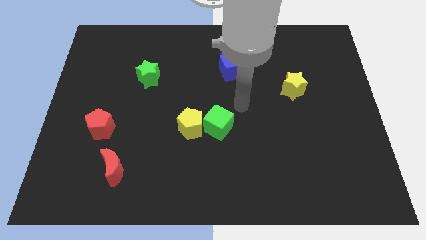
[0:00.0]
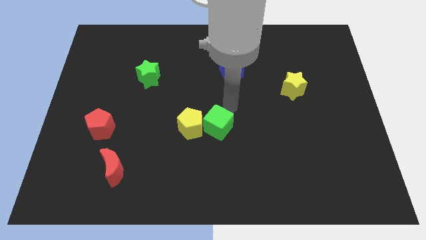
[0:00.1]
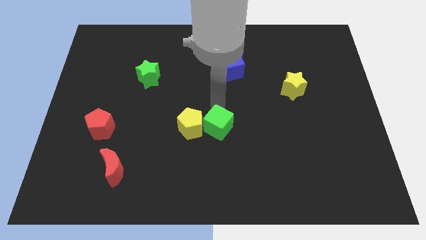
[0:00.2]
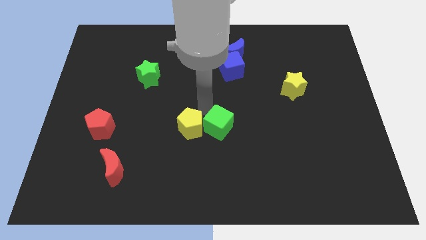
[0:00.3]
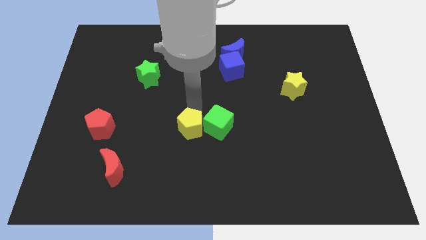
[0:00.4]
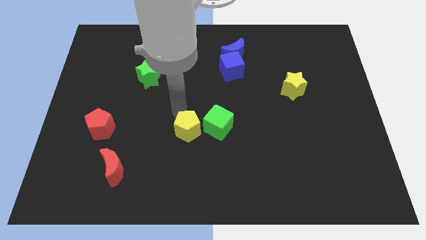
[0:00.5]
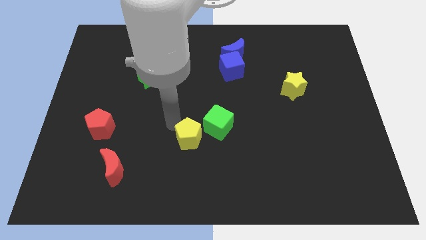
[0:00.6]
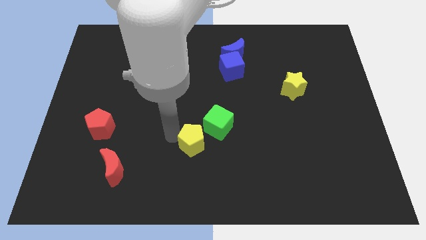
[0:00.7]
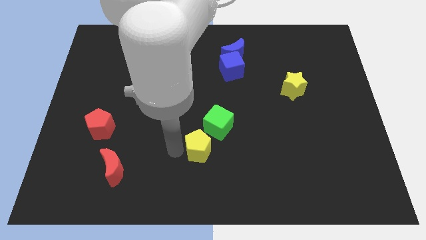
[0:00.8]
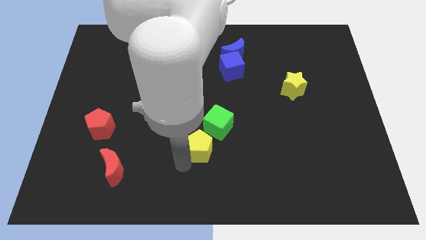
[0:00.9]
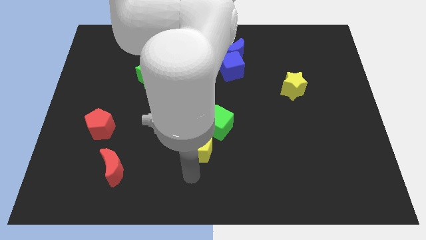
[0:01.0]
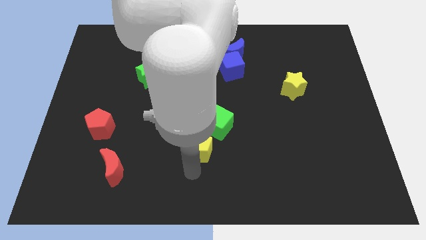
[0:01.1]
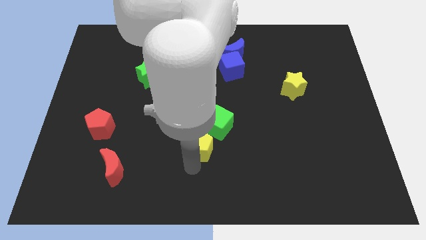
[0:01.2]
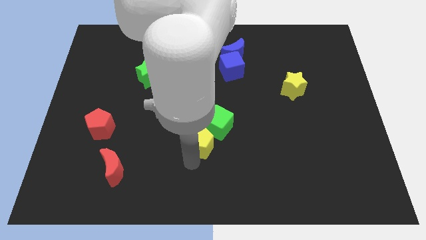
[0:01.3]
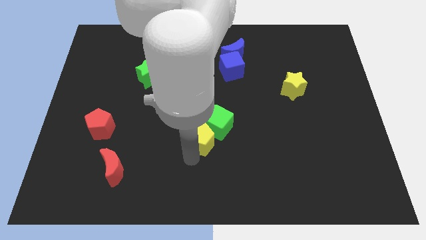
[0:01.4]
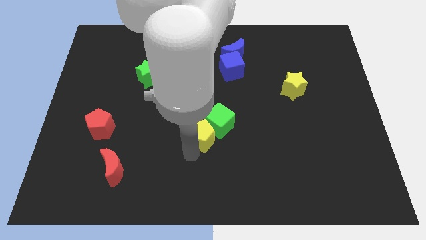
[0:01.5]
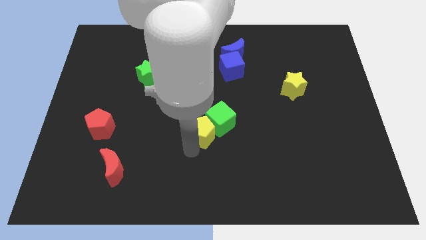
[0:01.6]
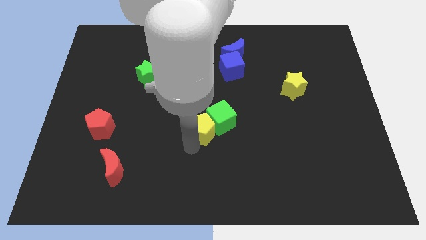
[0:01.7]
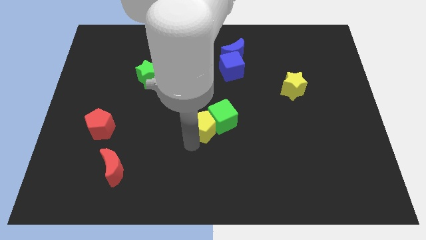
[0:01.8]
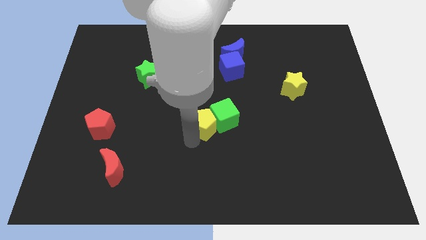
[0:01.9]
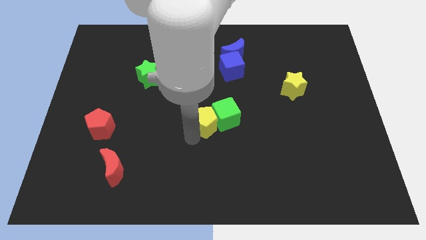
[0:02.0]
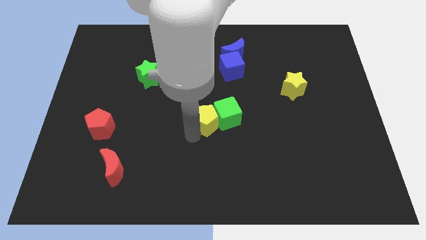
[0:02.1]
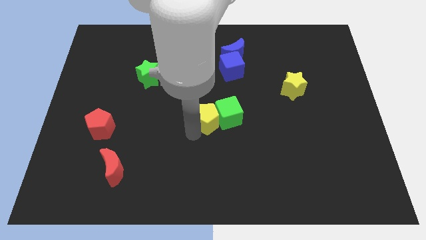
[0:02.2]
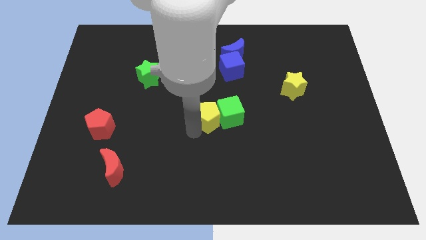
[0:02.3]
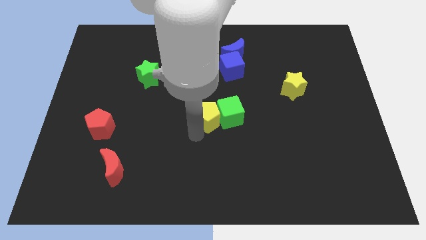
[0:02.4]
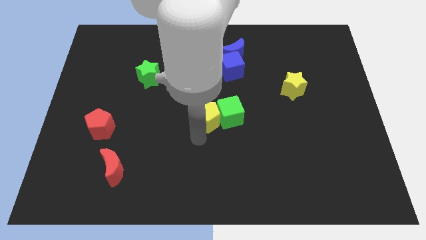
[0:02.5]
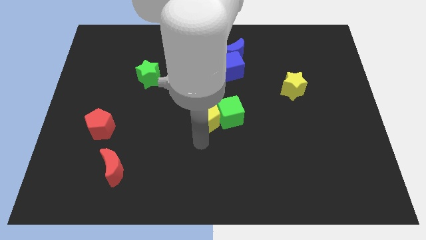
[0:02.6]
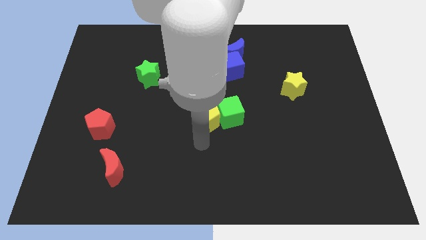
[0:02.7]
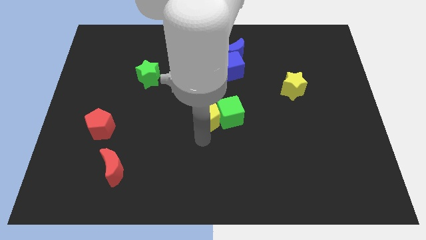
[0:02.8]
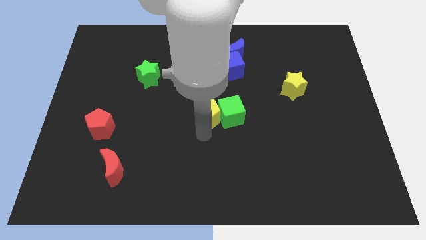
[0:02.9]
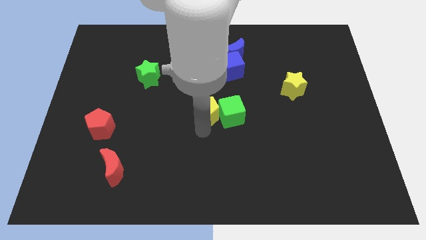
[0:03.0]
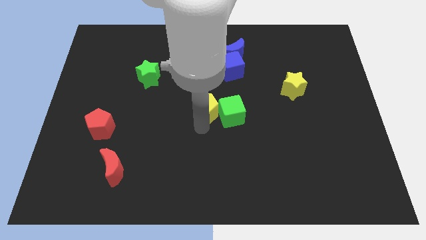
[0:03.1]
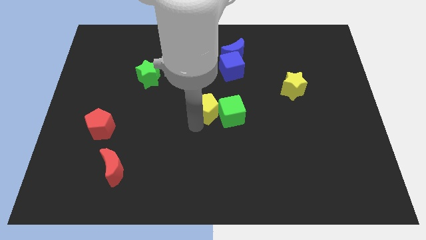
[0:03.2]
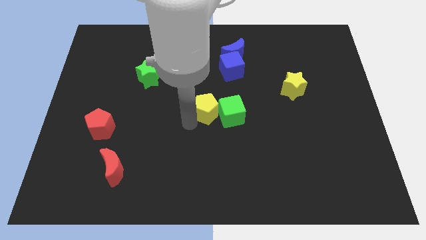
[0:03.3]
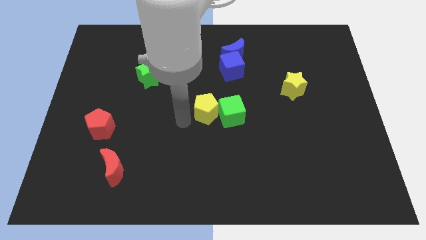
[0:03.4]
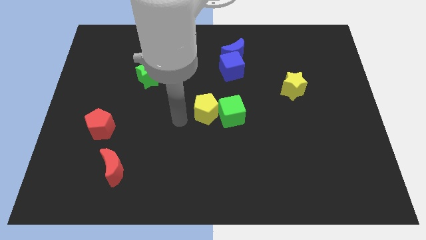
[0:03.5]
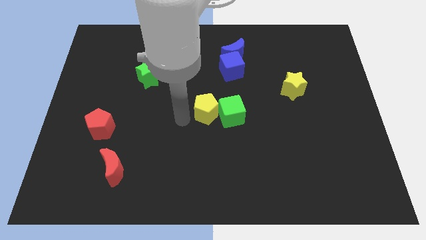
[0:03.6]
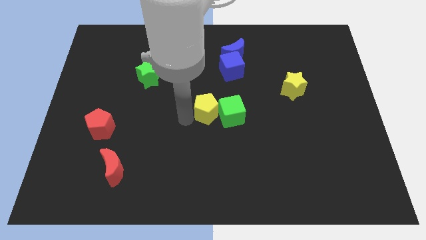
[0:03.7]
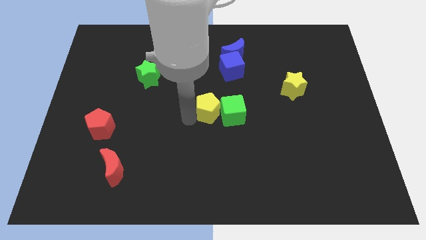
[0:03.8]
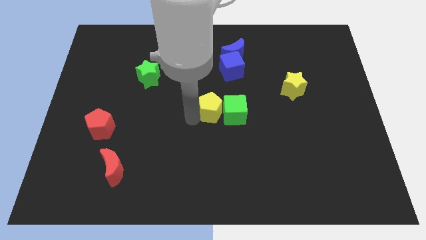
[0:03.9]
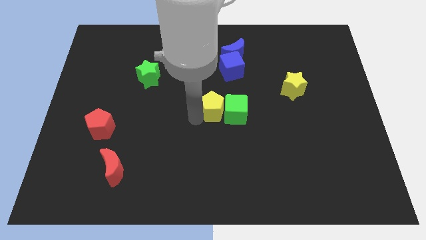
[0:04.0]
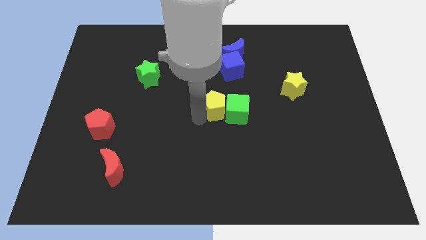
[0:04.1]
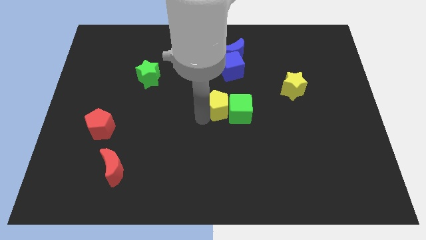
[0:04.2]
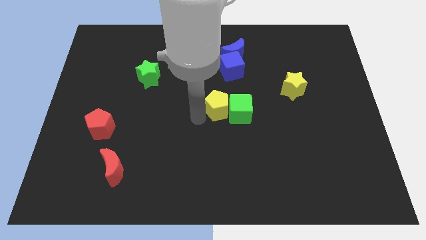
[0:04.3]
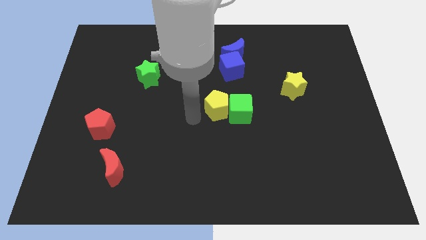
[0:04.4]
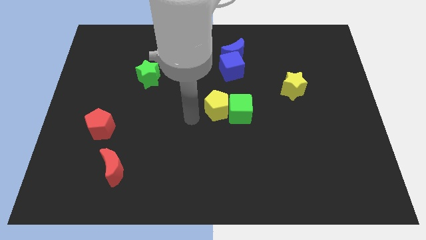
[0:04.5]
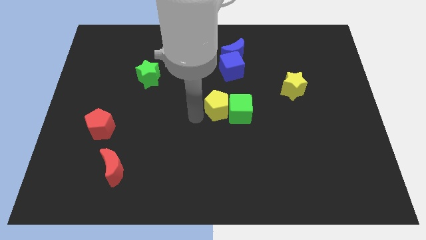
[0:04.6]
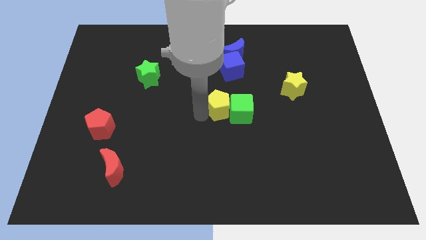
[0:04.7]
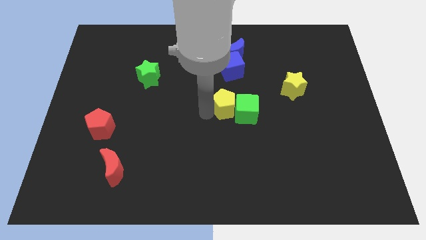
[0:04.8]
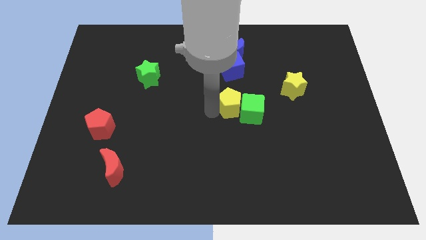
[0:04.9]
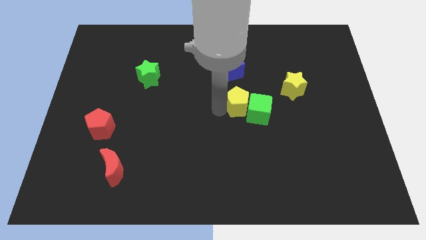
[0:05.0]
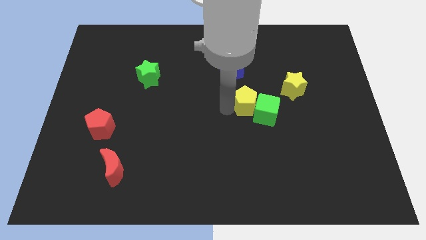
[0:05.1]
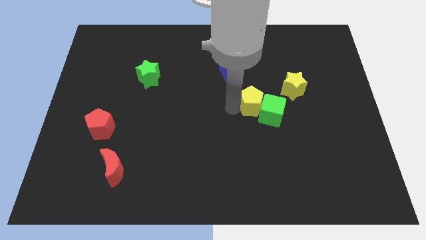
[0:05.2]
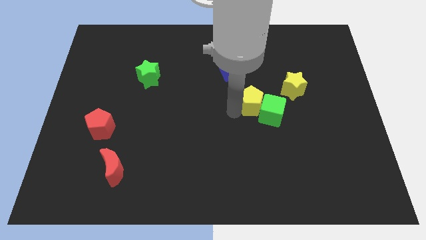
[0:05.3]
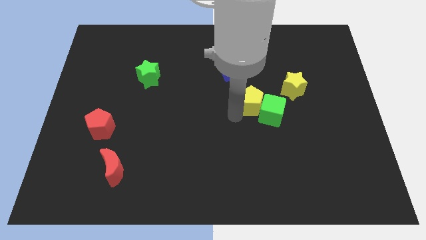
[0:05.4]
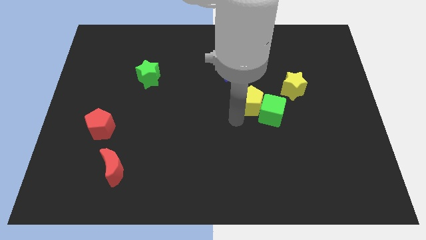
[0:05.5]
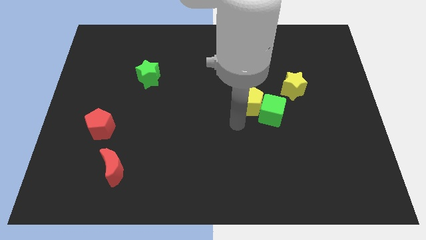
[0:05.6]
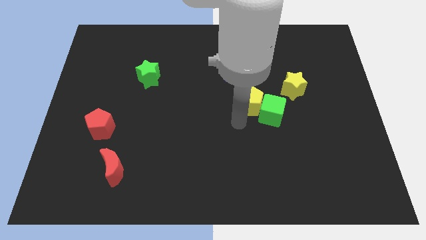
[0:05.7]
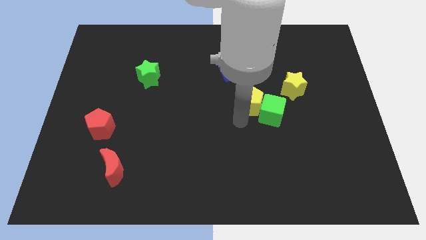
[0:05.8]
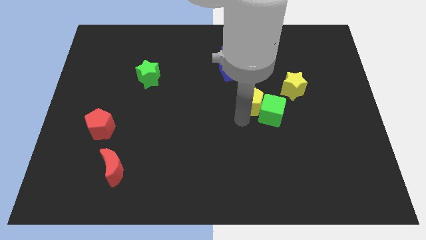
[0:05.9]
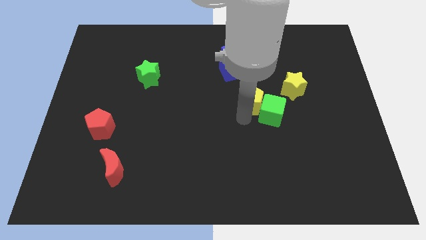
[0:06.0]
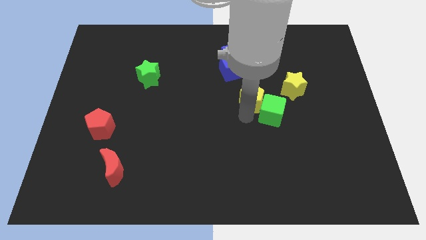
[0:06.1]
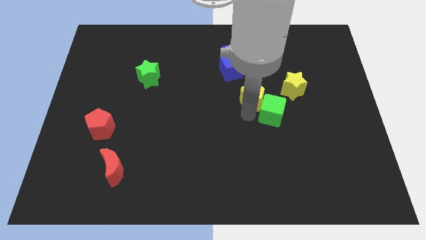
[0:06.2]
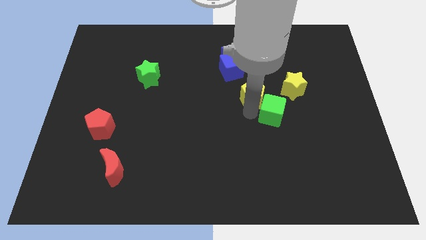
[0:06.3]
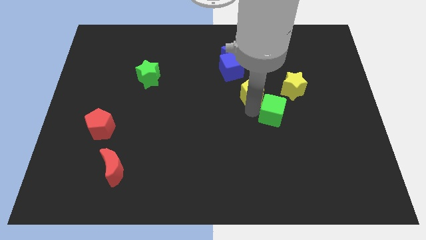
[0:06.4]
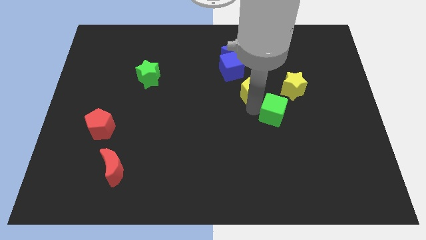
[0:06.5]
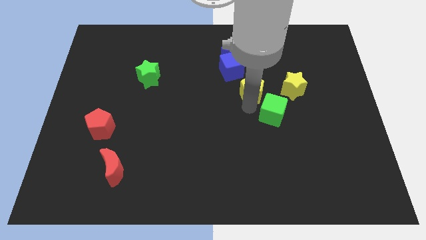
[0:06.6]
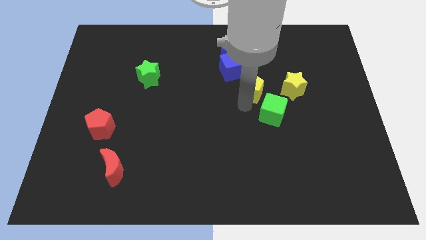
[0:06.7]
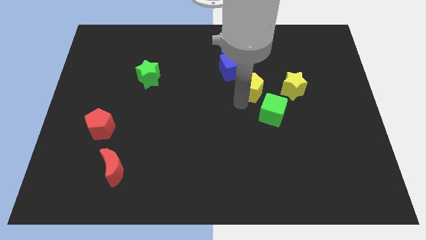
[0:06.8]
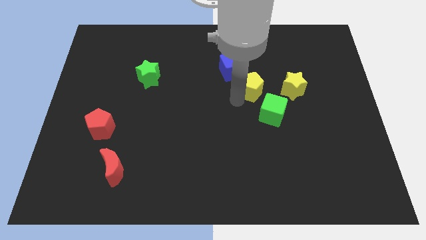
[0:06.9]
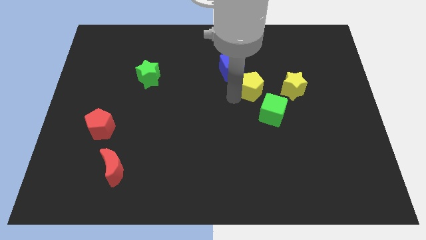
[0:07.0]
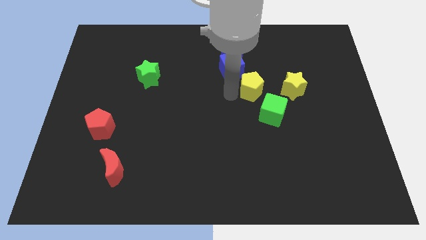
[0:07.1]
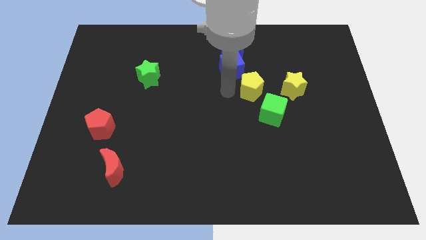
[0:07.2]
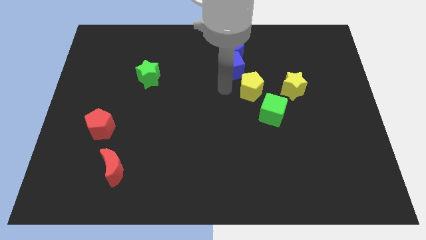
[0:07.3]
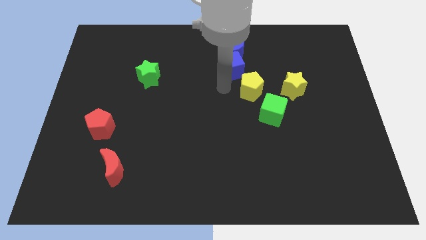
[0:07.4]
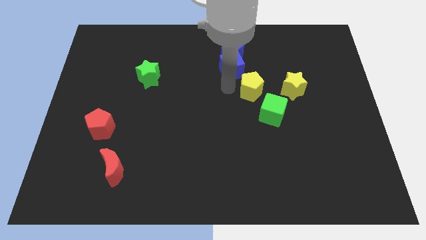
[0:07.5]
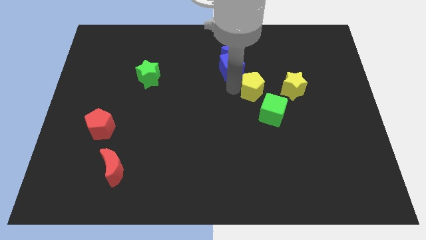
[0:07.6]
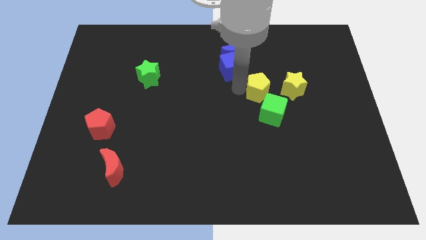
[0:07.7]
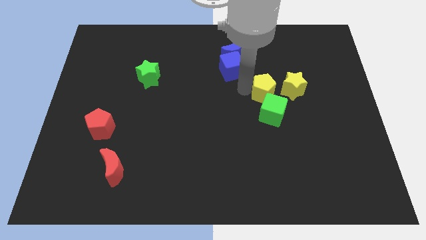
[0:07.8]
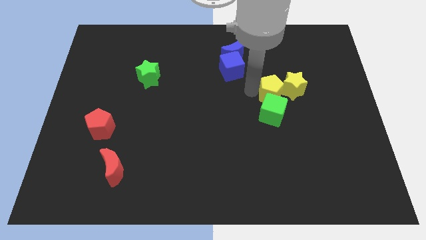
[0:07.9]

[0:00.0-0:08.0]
push the yellow pentagon towards the yellow star
